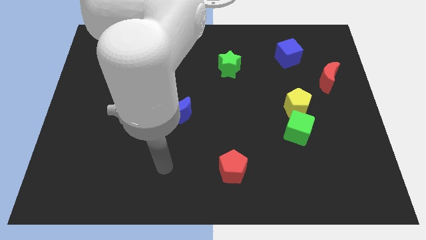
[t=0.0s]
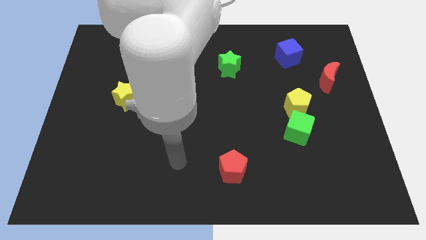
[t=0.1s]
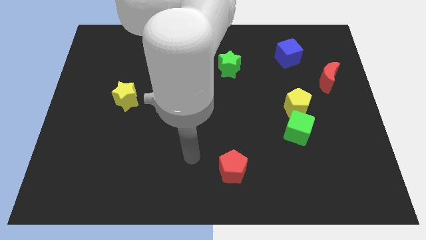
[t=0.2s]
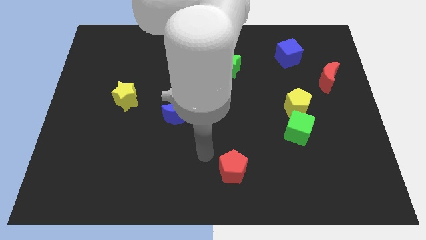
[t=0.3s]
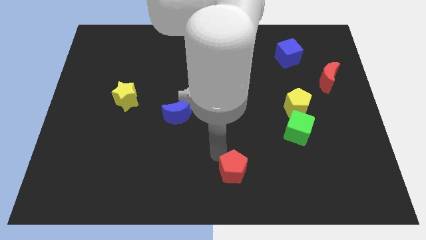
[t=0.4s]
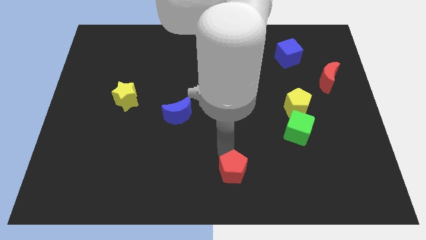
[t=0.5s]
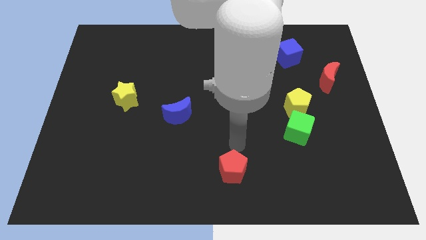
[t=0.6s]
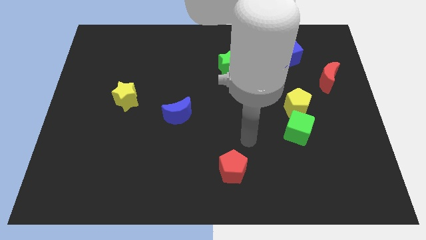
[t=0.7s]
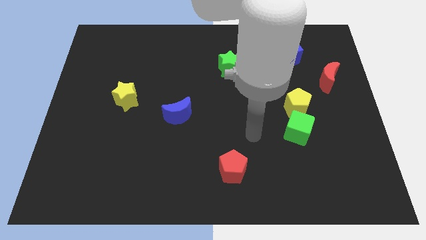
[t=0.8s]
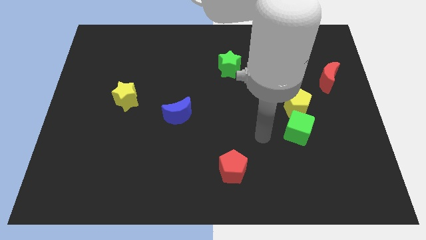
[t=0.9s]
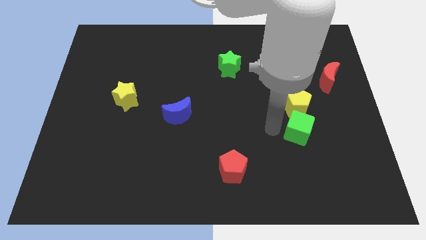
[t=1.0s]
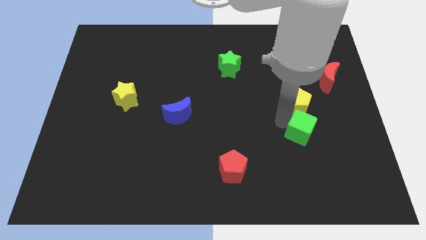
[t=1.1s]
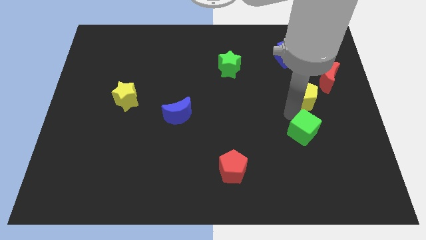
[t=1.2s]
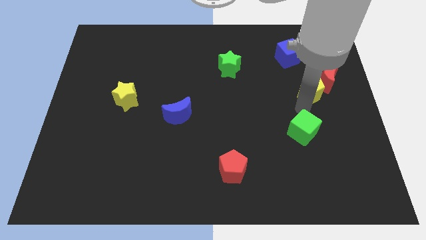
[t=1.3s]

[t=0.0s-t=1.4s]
separate the green cube from the yellow pentagon

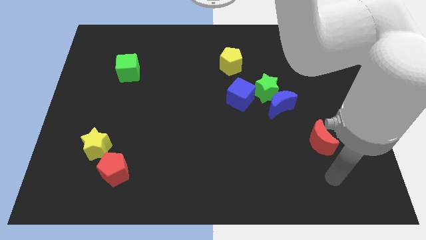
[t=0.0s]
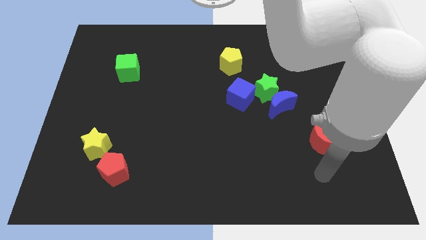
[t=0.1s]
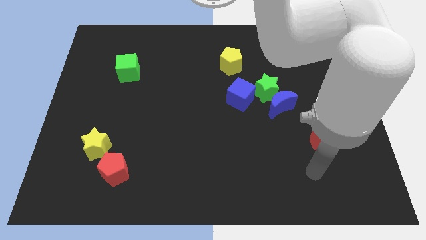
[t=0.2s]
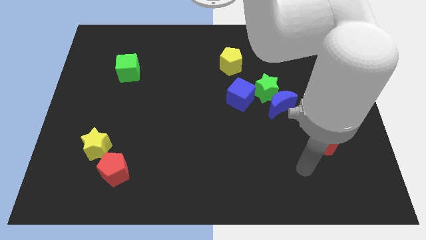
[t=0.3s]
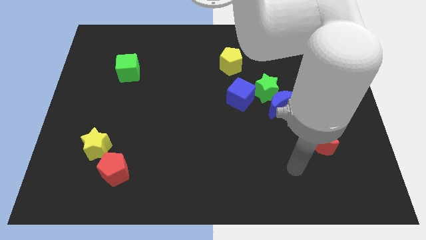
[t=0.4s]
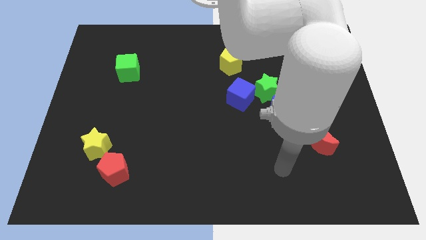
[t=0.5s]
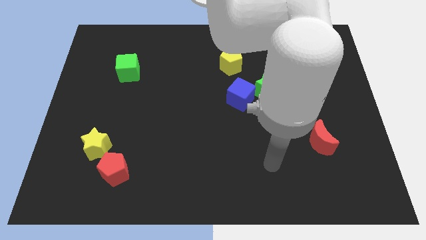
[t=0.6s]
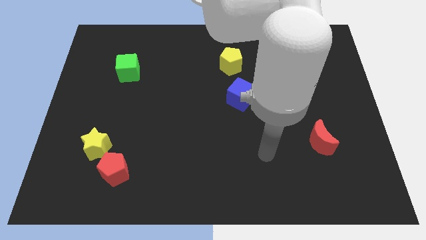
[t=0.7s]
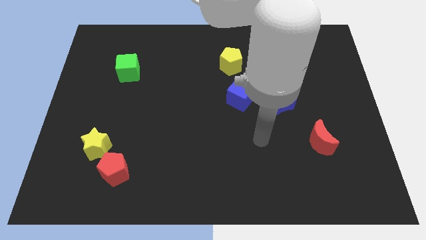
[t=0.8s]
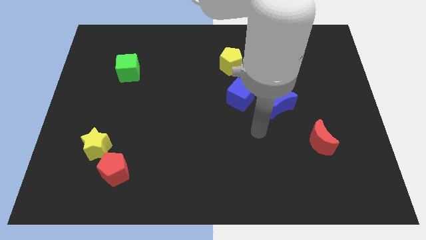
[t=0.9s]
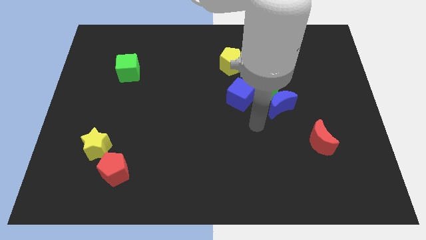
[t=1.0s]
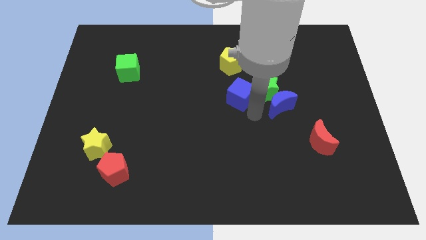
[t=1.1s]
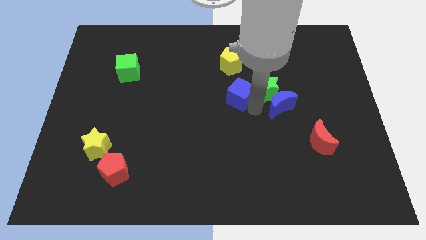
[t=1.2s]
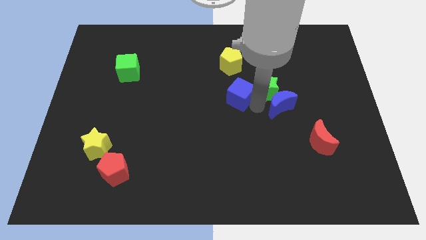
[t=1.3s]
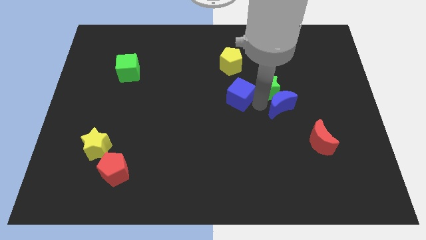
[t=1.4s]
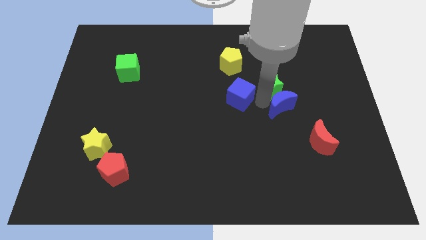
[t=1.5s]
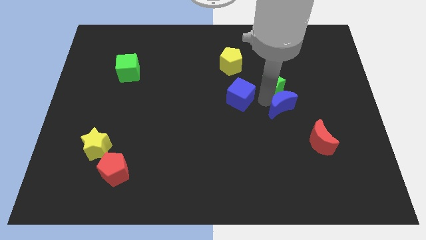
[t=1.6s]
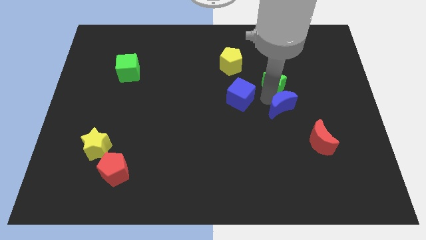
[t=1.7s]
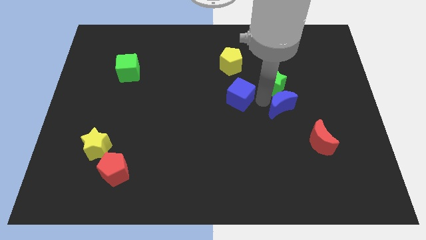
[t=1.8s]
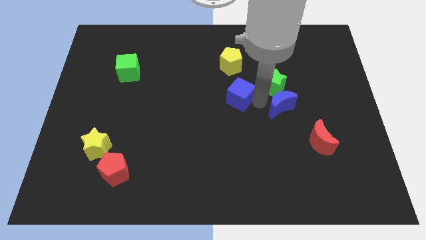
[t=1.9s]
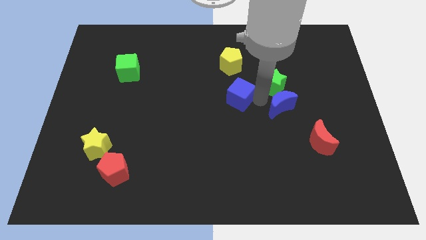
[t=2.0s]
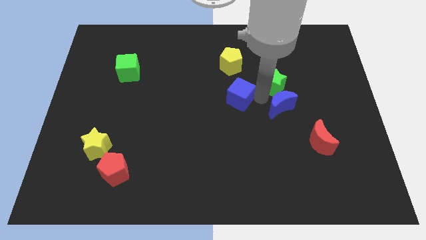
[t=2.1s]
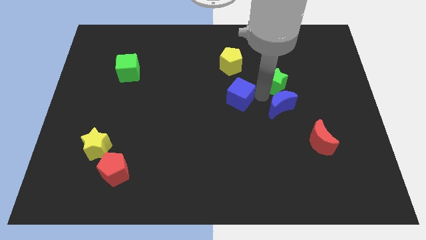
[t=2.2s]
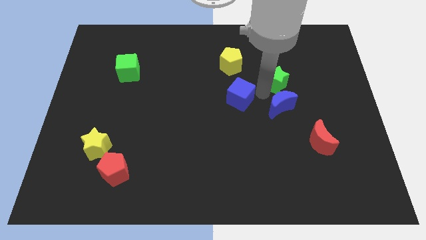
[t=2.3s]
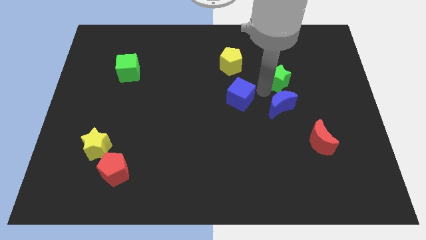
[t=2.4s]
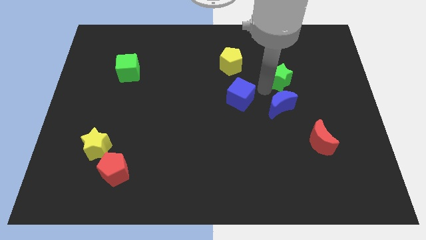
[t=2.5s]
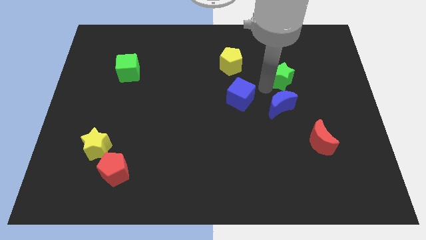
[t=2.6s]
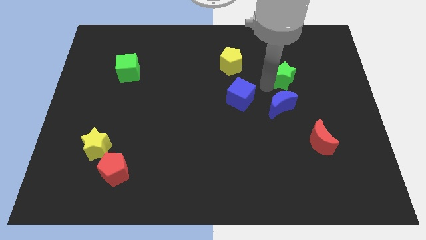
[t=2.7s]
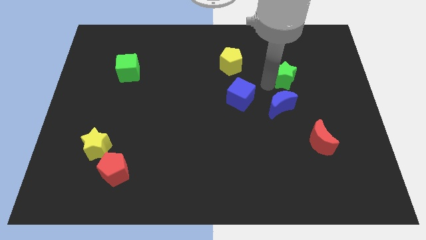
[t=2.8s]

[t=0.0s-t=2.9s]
move the green star away from the blue moon and blue cube

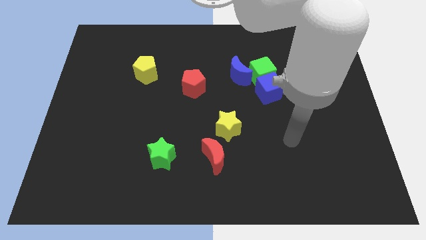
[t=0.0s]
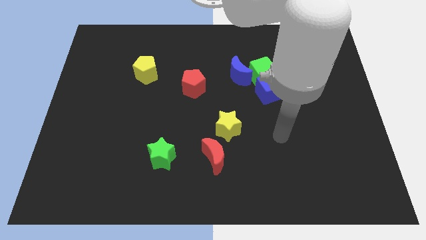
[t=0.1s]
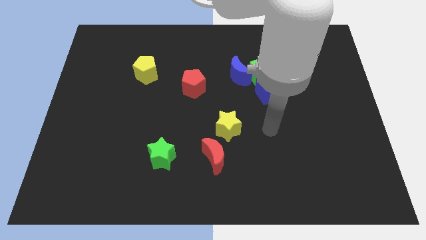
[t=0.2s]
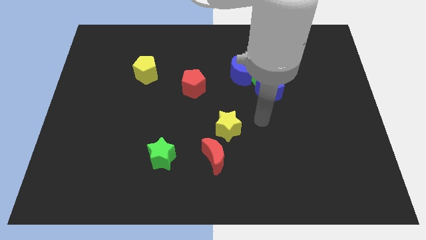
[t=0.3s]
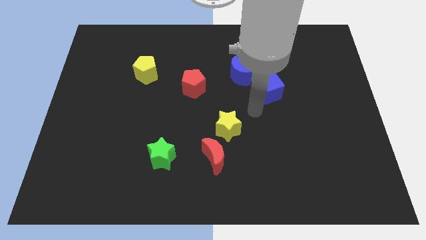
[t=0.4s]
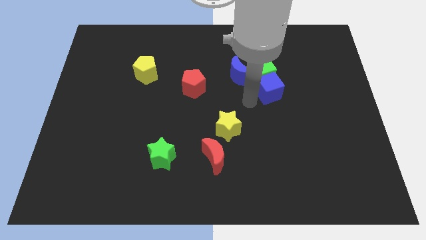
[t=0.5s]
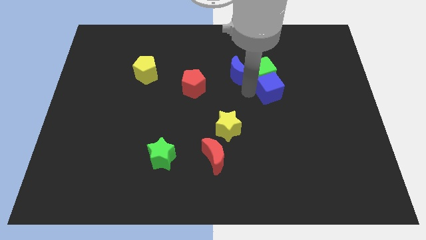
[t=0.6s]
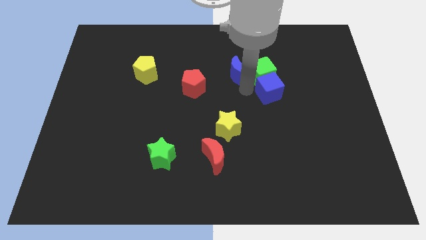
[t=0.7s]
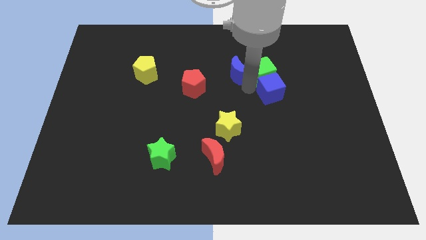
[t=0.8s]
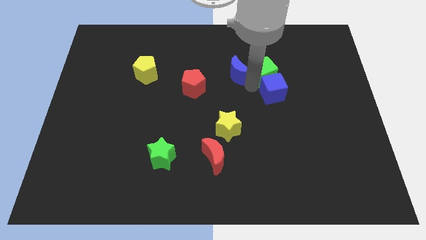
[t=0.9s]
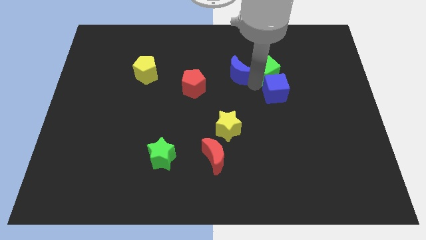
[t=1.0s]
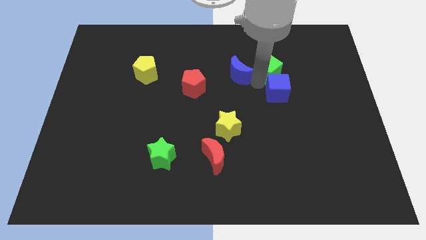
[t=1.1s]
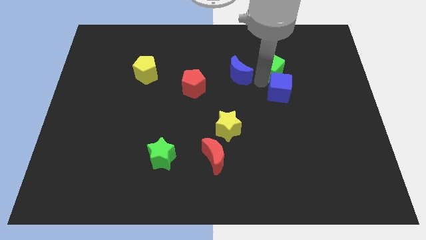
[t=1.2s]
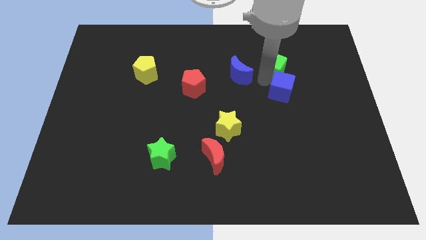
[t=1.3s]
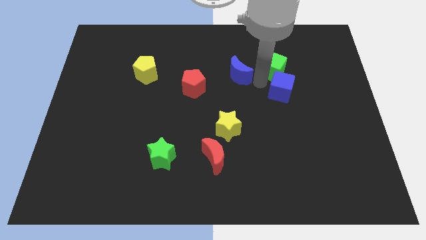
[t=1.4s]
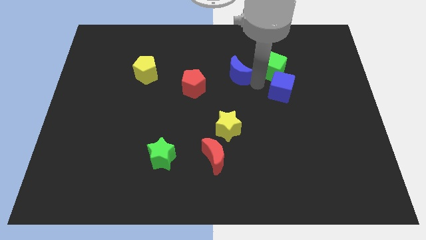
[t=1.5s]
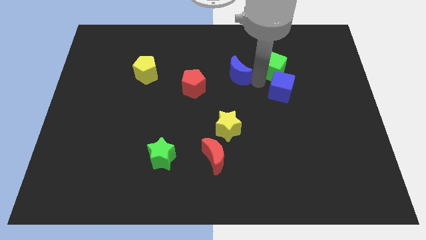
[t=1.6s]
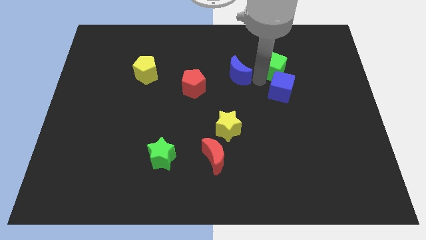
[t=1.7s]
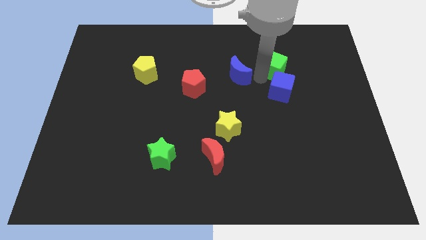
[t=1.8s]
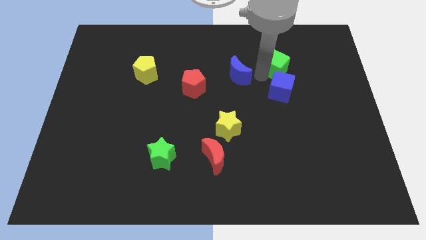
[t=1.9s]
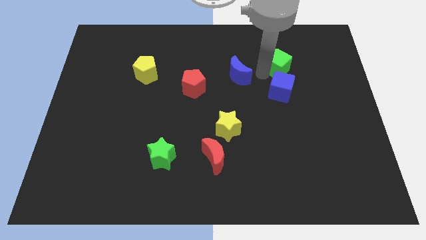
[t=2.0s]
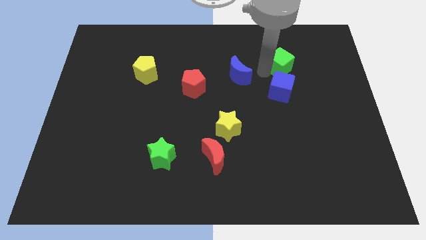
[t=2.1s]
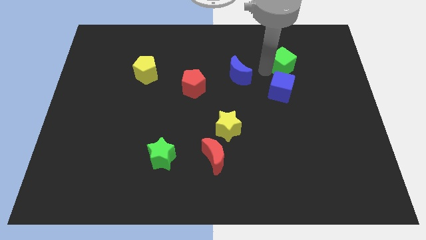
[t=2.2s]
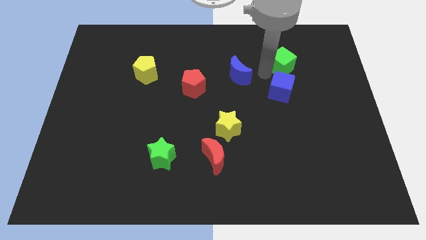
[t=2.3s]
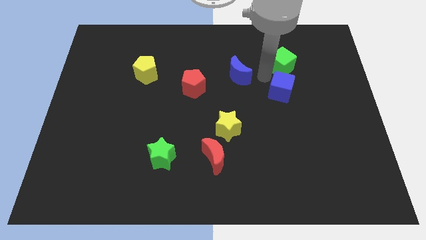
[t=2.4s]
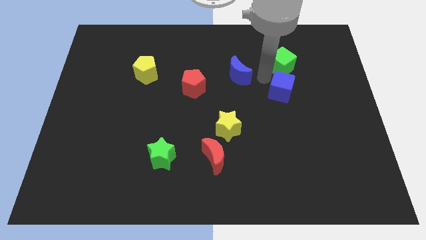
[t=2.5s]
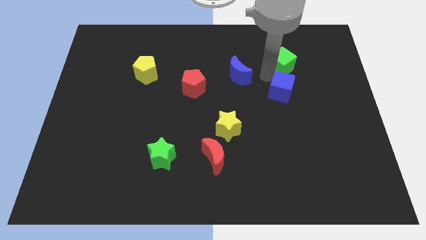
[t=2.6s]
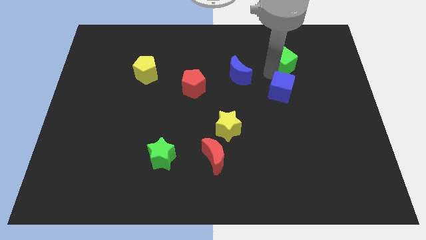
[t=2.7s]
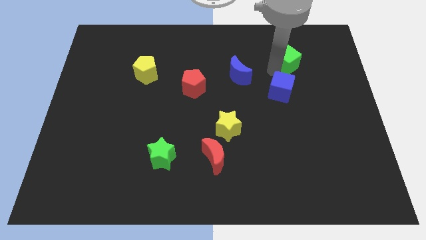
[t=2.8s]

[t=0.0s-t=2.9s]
move the green cube away from the blue cube and blue moon

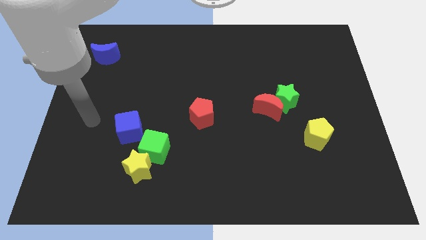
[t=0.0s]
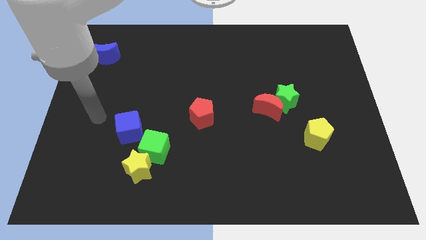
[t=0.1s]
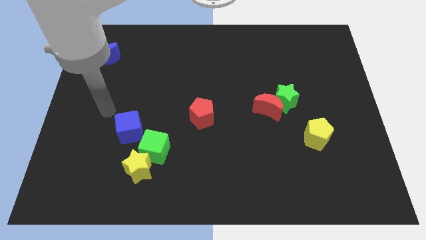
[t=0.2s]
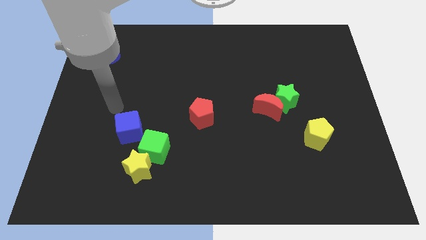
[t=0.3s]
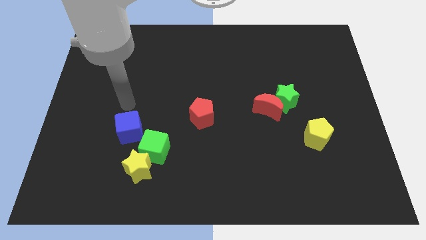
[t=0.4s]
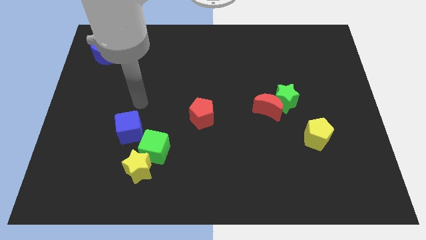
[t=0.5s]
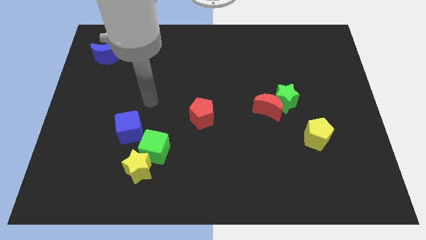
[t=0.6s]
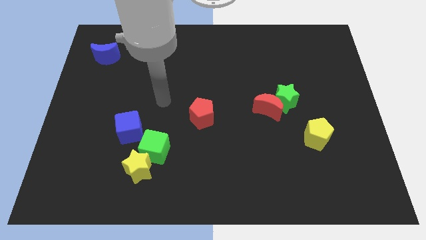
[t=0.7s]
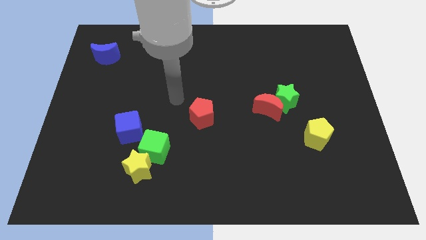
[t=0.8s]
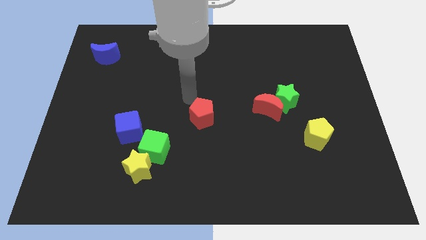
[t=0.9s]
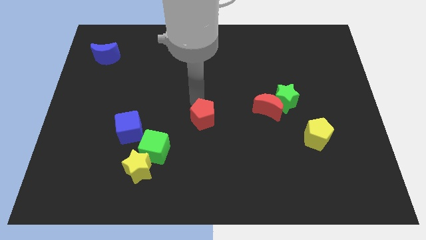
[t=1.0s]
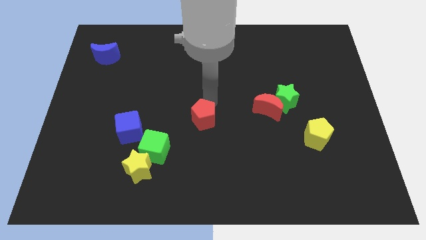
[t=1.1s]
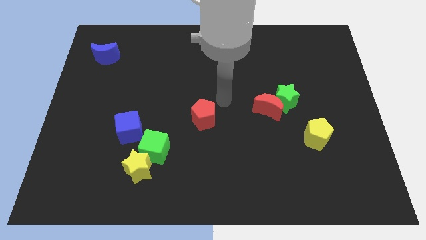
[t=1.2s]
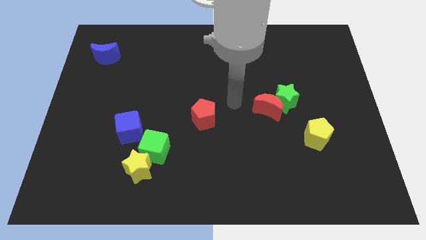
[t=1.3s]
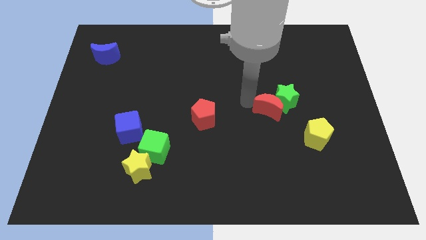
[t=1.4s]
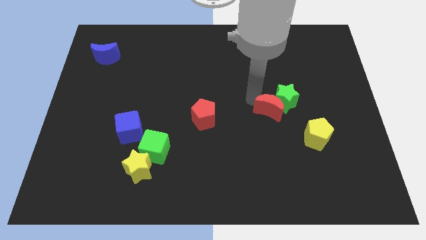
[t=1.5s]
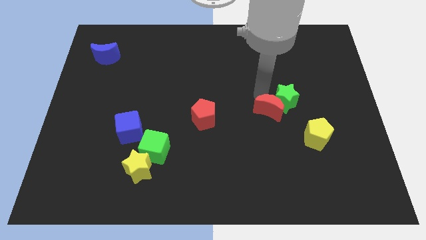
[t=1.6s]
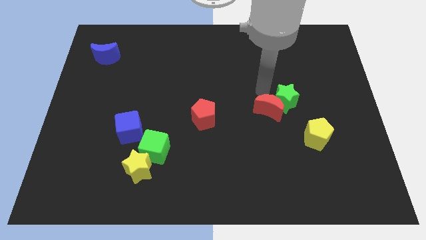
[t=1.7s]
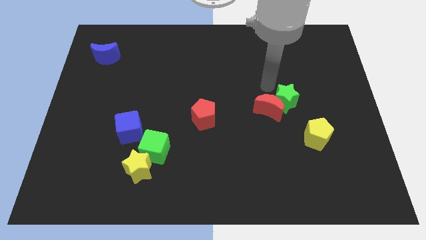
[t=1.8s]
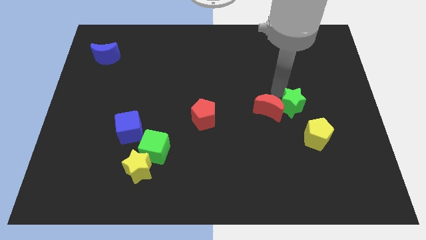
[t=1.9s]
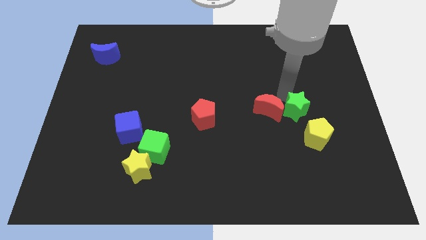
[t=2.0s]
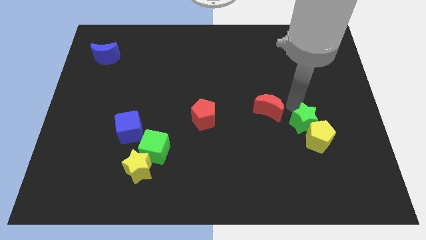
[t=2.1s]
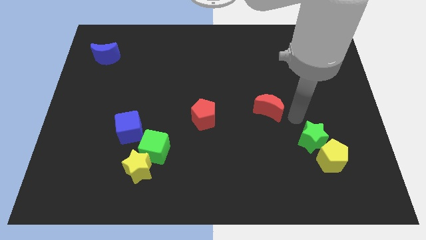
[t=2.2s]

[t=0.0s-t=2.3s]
separate the red moon from the green star
